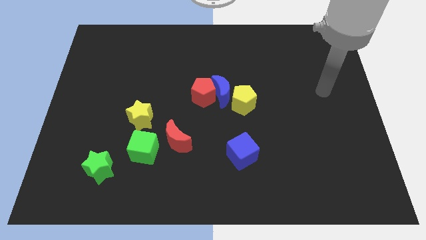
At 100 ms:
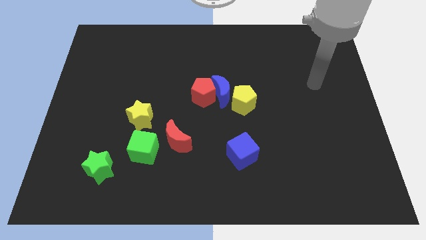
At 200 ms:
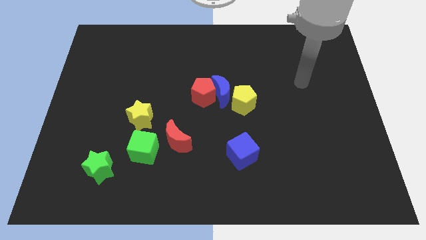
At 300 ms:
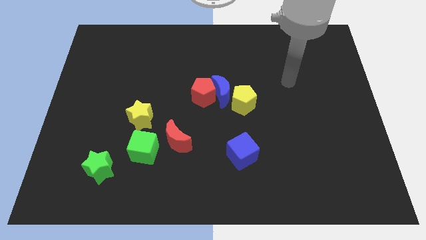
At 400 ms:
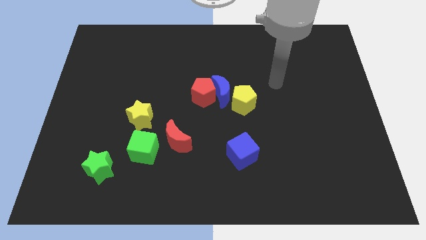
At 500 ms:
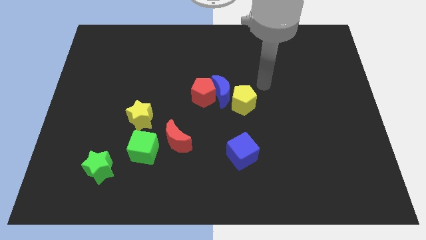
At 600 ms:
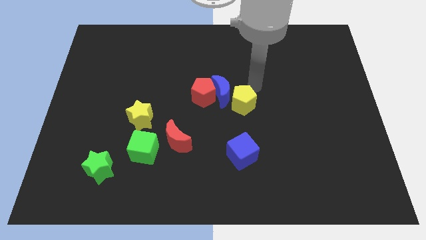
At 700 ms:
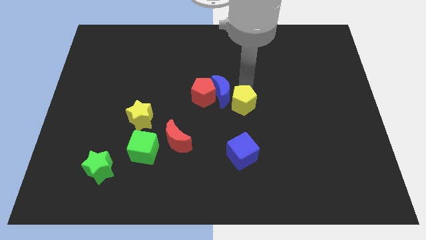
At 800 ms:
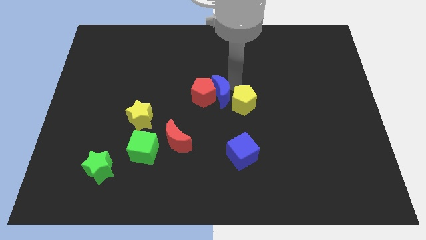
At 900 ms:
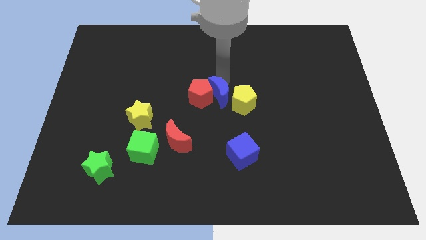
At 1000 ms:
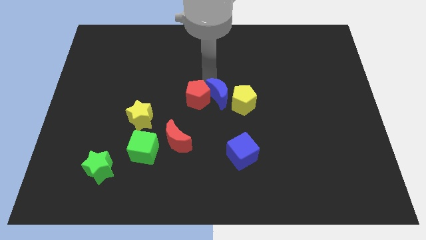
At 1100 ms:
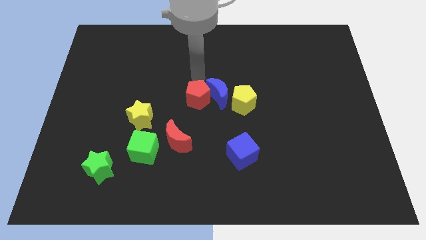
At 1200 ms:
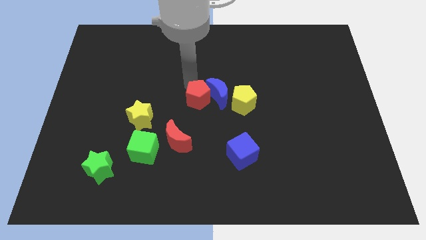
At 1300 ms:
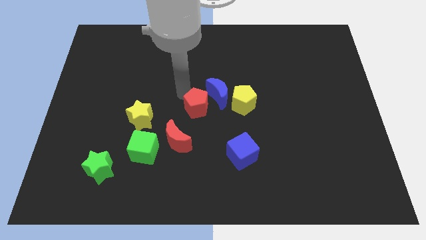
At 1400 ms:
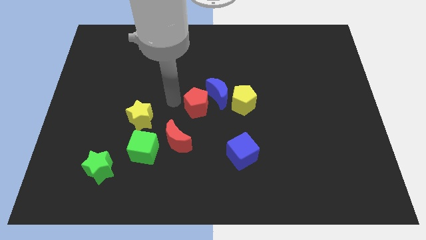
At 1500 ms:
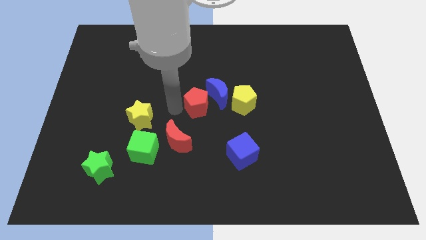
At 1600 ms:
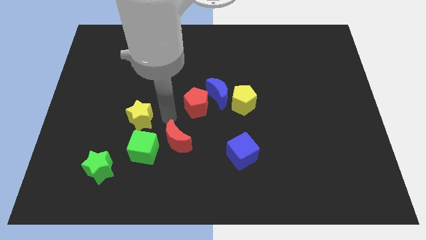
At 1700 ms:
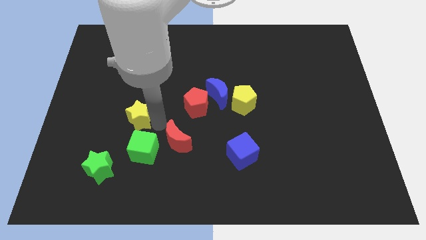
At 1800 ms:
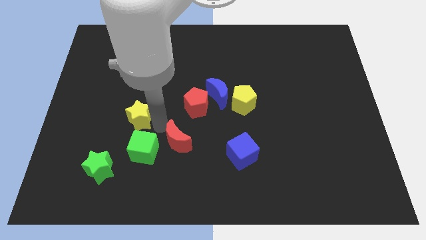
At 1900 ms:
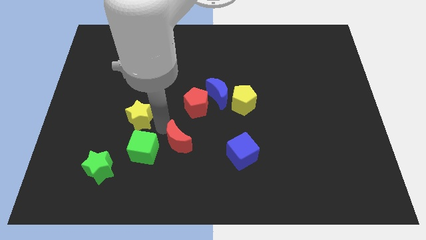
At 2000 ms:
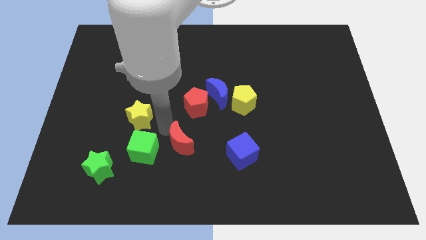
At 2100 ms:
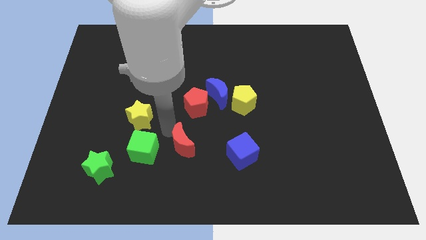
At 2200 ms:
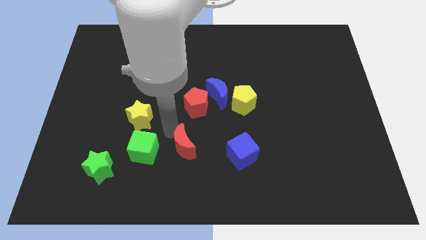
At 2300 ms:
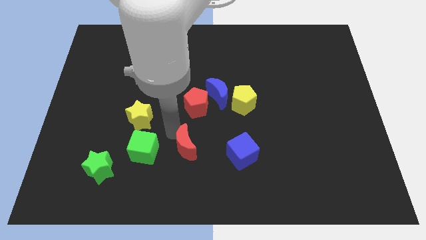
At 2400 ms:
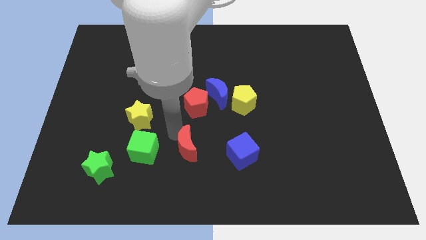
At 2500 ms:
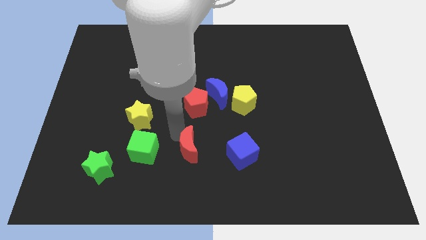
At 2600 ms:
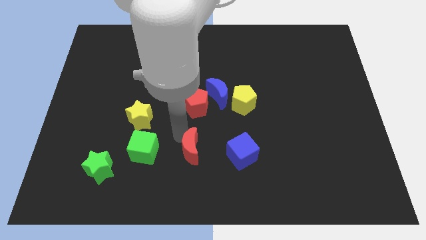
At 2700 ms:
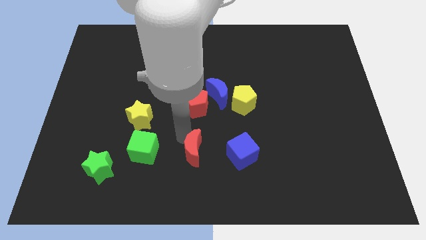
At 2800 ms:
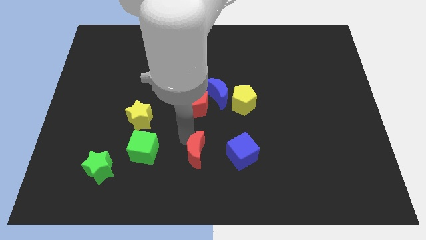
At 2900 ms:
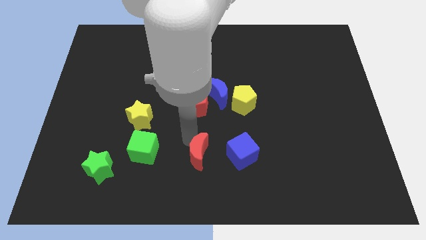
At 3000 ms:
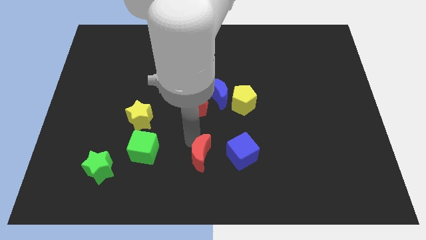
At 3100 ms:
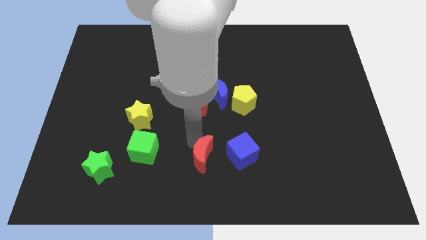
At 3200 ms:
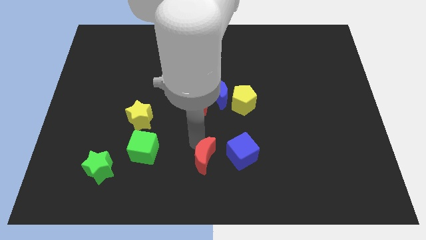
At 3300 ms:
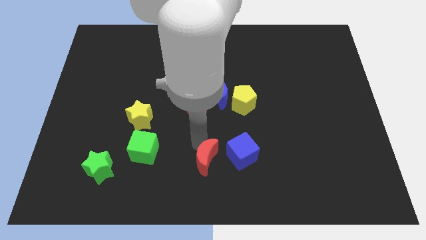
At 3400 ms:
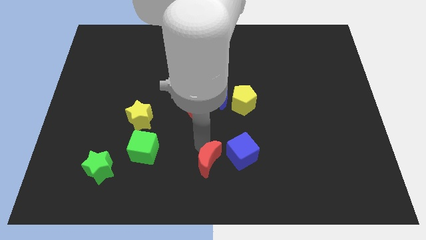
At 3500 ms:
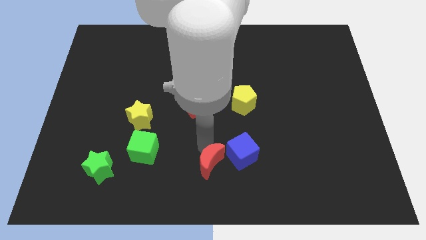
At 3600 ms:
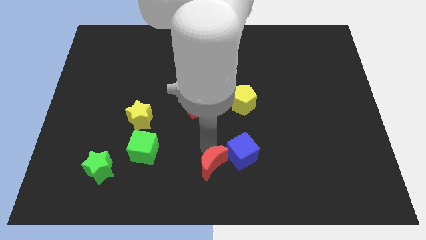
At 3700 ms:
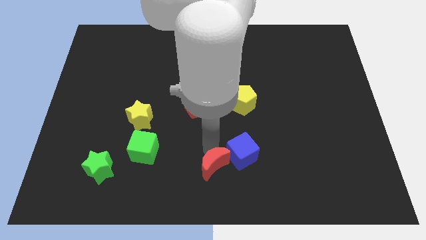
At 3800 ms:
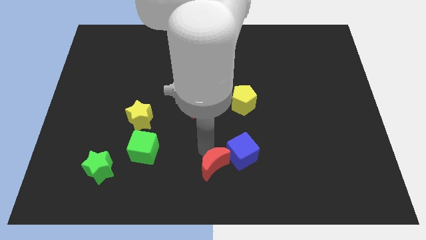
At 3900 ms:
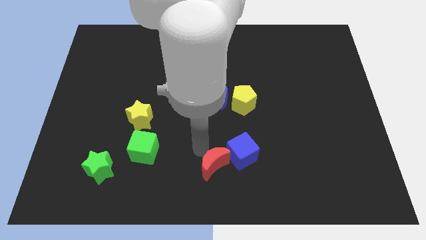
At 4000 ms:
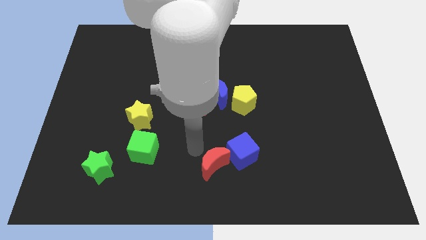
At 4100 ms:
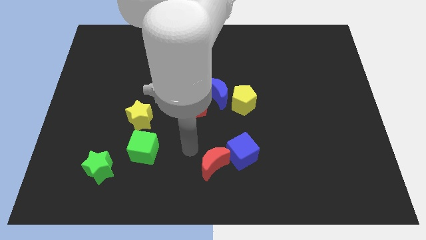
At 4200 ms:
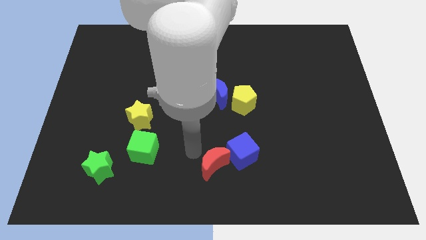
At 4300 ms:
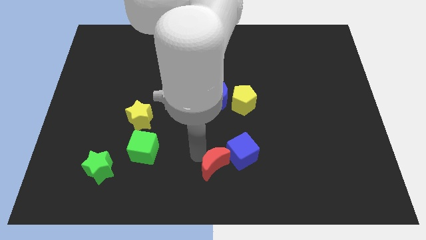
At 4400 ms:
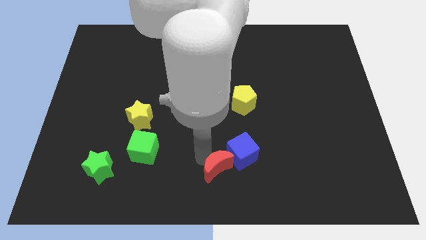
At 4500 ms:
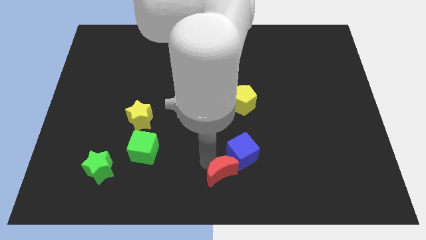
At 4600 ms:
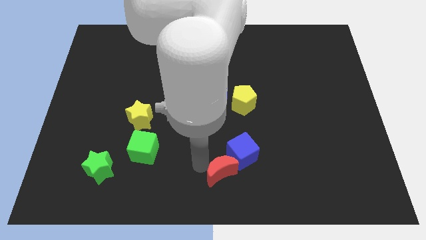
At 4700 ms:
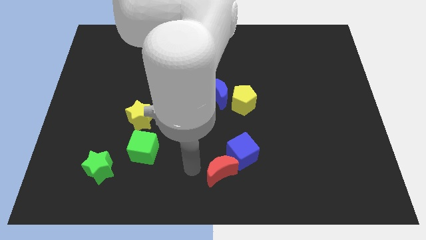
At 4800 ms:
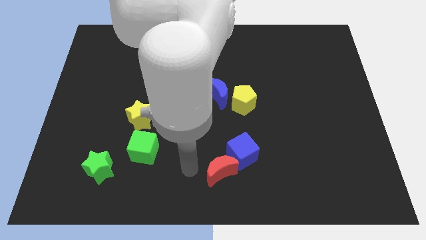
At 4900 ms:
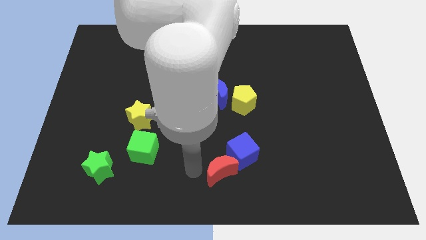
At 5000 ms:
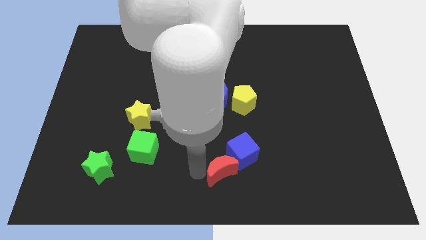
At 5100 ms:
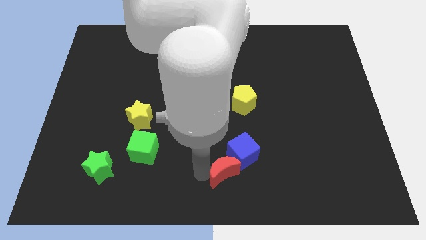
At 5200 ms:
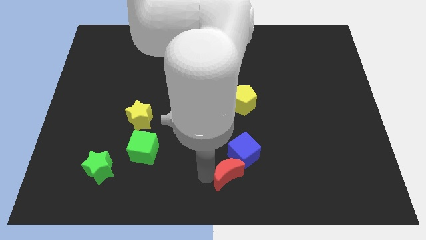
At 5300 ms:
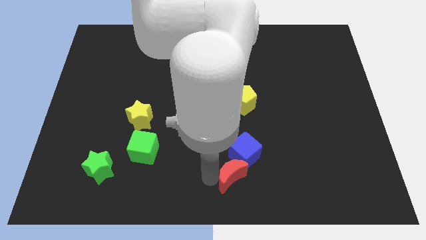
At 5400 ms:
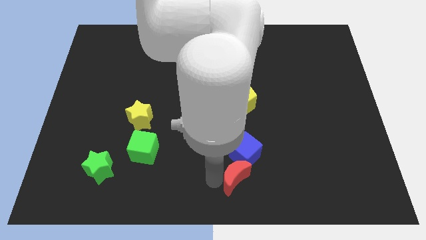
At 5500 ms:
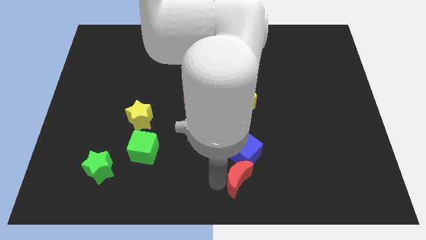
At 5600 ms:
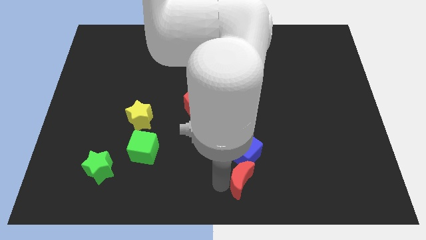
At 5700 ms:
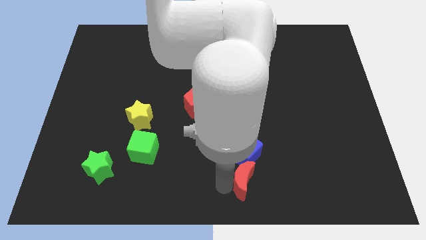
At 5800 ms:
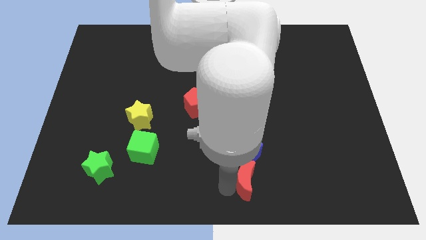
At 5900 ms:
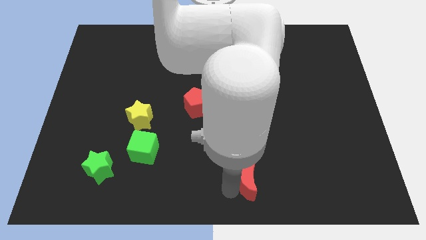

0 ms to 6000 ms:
slide the red moon diagonally down and to the right of the blue cube

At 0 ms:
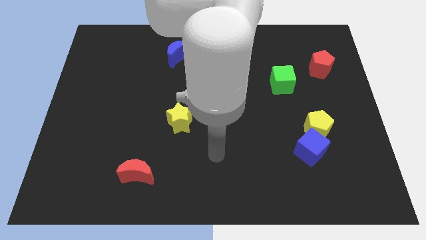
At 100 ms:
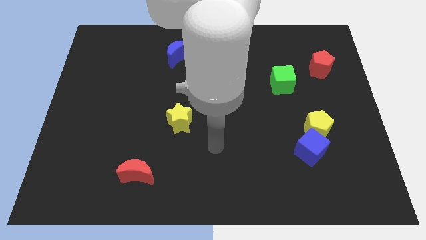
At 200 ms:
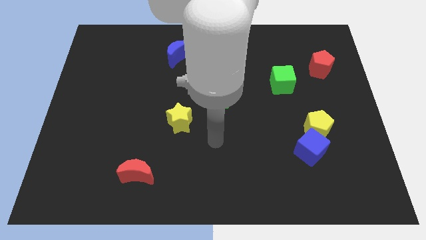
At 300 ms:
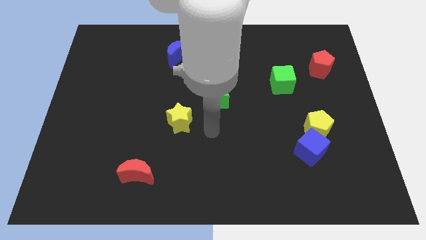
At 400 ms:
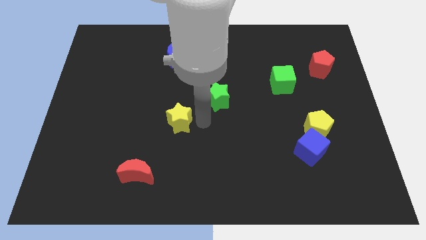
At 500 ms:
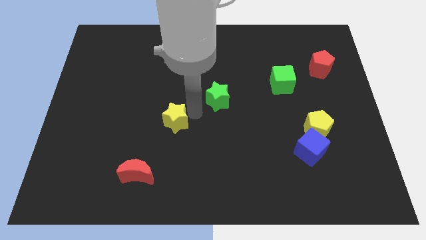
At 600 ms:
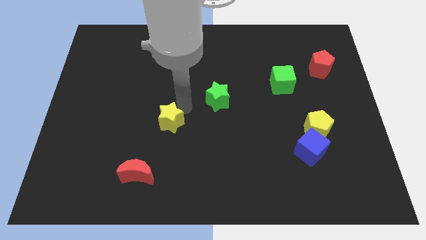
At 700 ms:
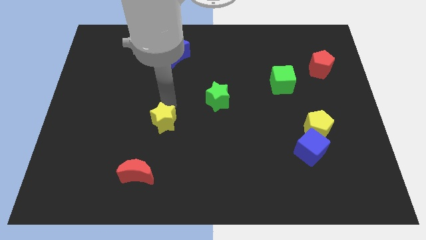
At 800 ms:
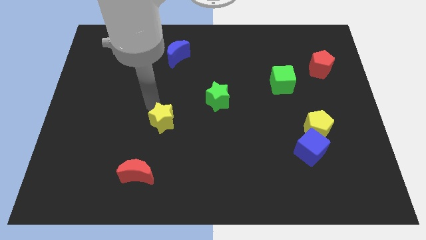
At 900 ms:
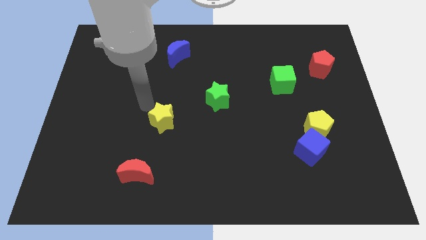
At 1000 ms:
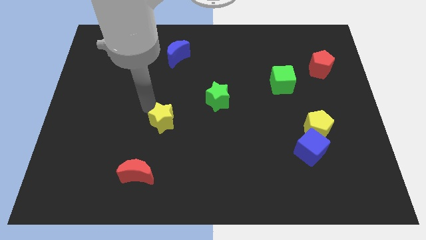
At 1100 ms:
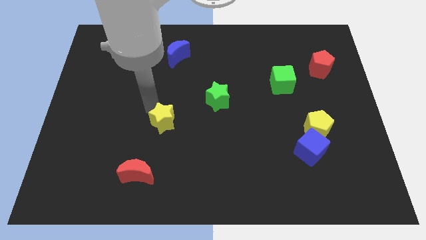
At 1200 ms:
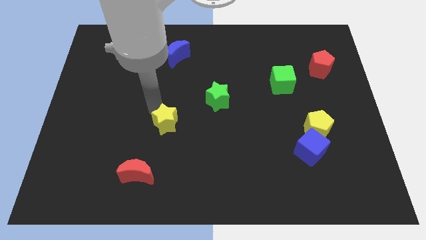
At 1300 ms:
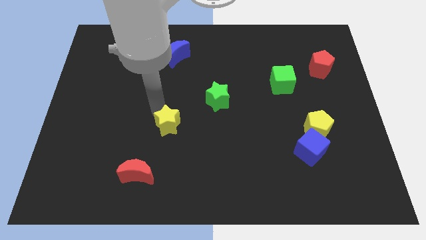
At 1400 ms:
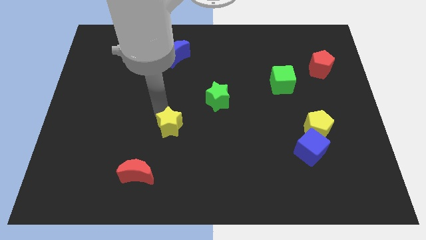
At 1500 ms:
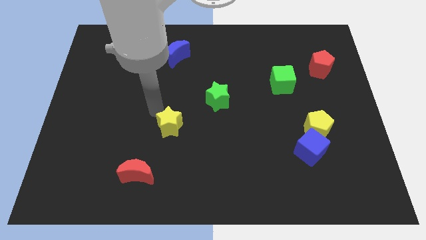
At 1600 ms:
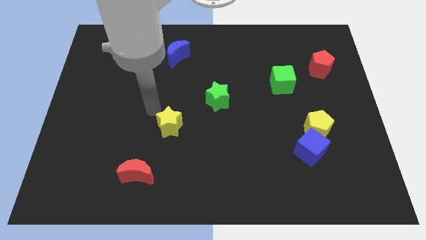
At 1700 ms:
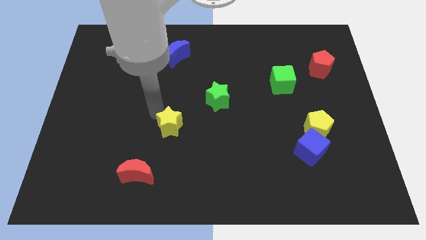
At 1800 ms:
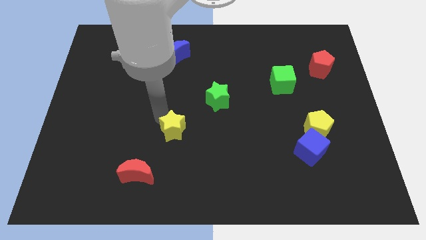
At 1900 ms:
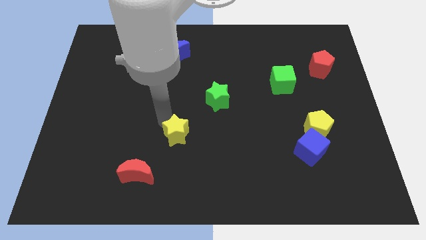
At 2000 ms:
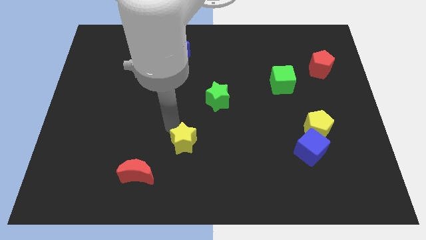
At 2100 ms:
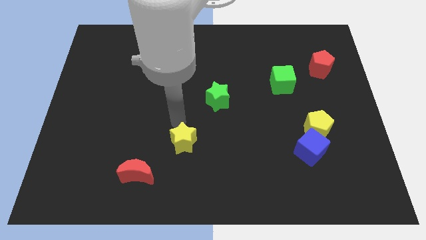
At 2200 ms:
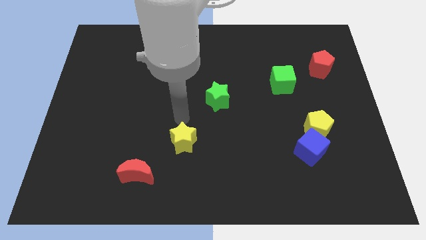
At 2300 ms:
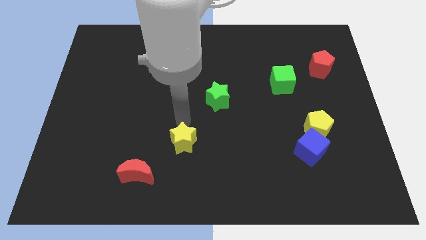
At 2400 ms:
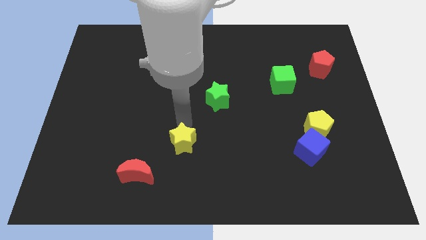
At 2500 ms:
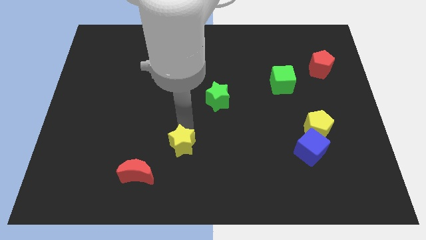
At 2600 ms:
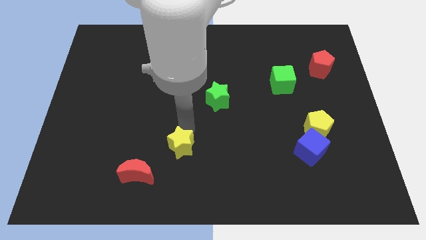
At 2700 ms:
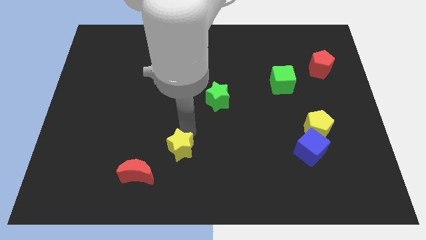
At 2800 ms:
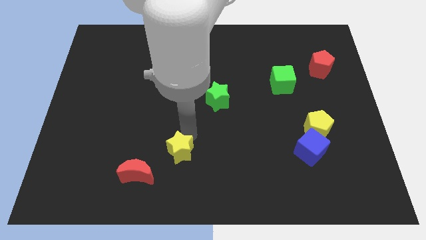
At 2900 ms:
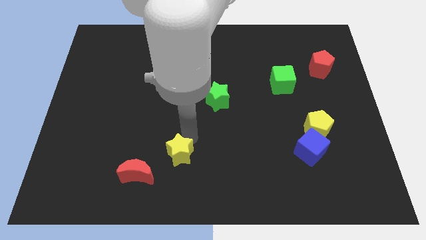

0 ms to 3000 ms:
slide the yellow star just right of the red moon
